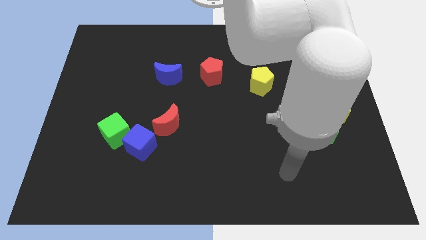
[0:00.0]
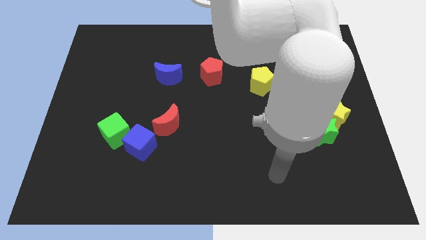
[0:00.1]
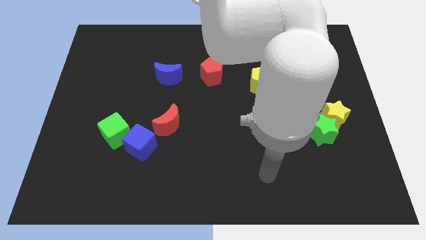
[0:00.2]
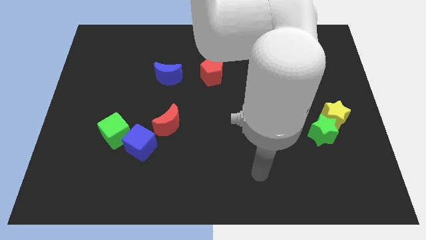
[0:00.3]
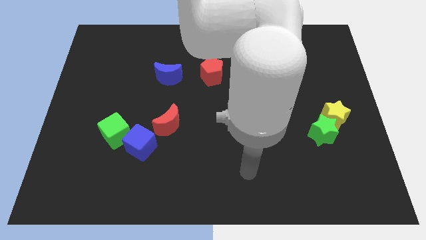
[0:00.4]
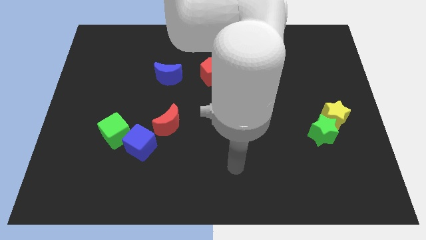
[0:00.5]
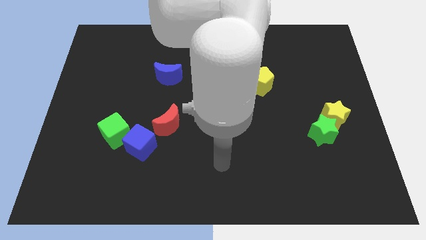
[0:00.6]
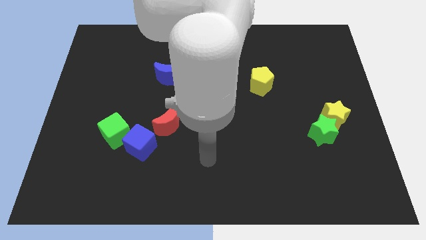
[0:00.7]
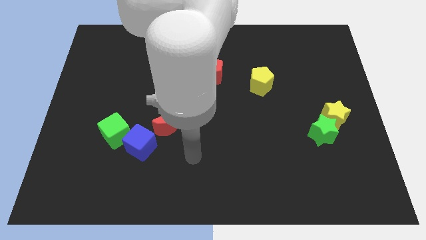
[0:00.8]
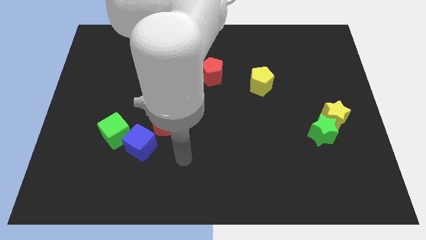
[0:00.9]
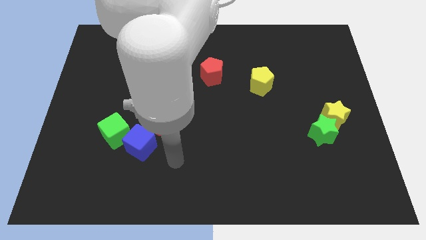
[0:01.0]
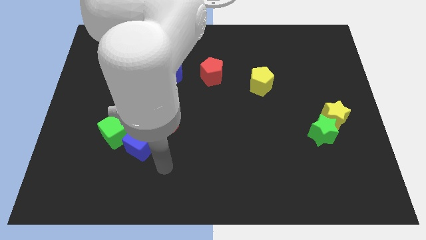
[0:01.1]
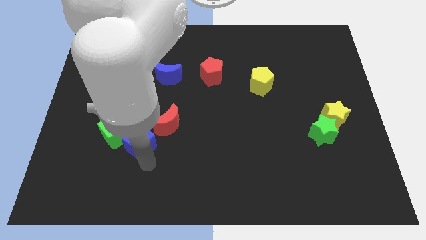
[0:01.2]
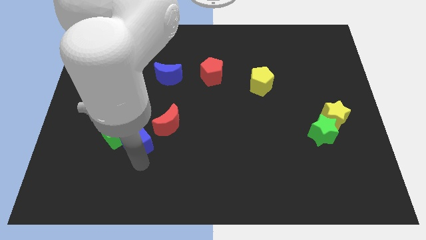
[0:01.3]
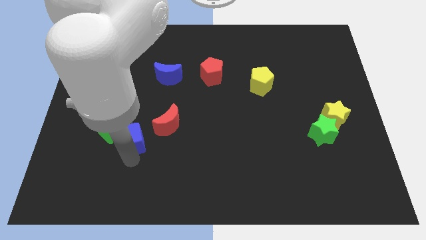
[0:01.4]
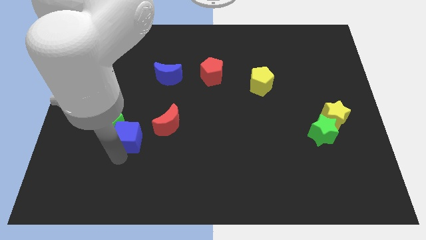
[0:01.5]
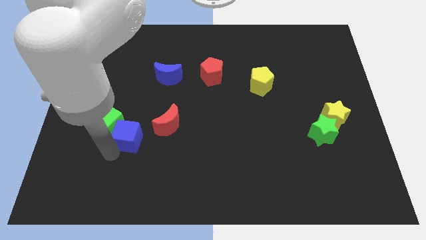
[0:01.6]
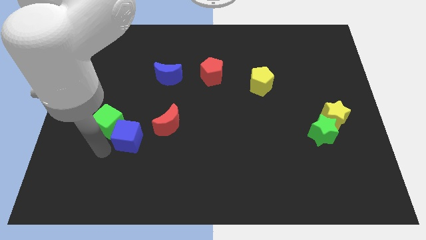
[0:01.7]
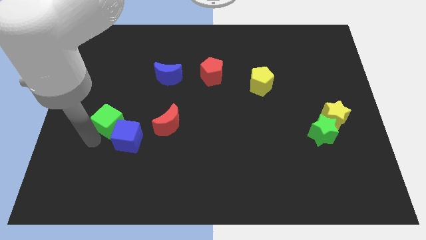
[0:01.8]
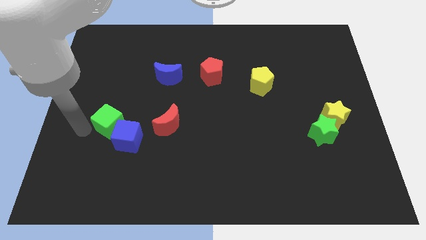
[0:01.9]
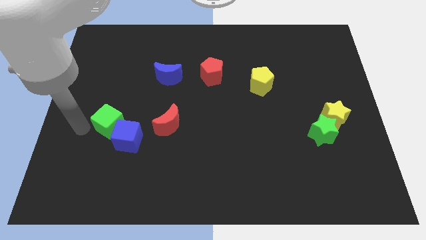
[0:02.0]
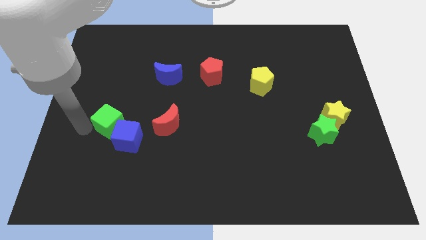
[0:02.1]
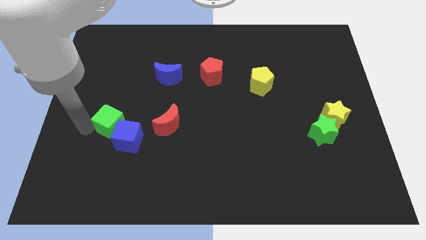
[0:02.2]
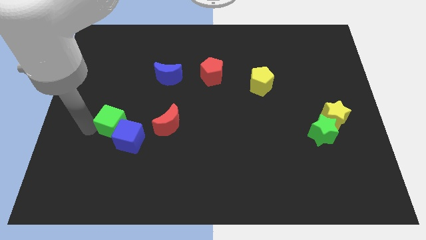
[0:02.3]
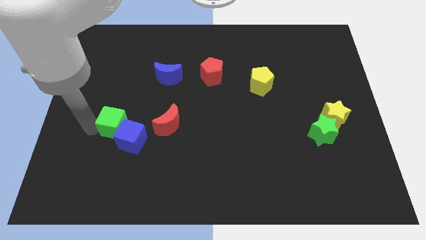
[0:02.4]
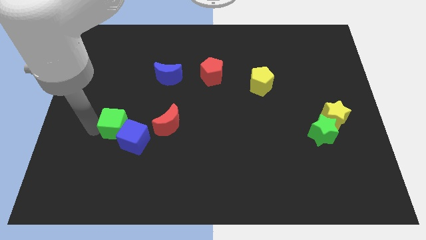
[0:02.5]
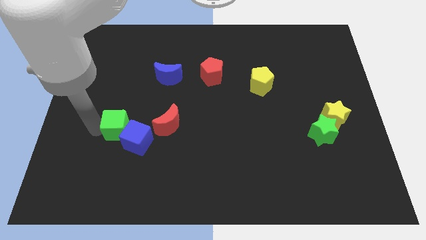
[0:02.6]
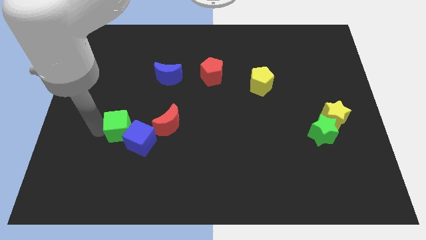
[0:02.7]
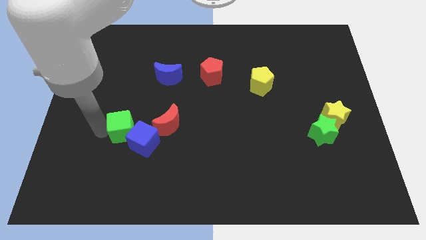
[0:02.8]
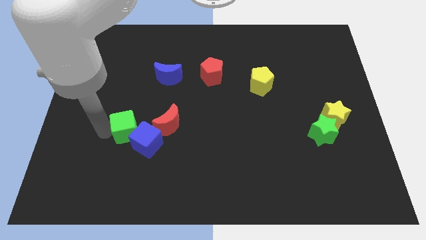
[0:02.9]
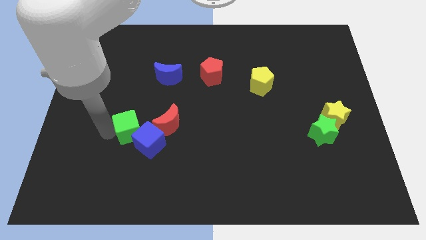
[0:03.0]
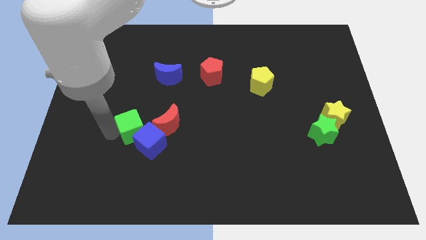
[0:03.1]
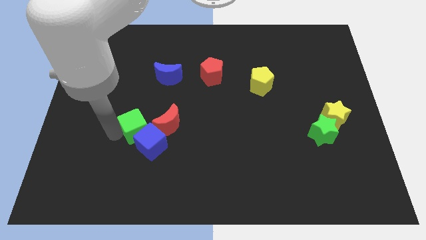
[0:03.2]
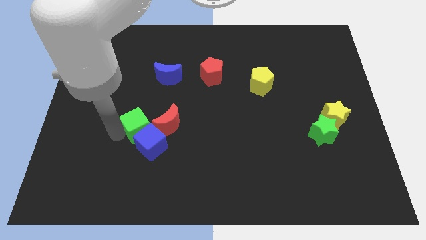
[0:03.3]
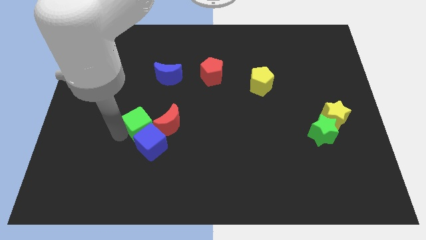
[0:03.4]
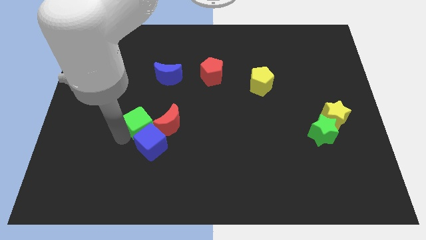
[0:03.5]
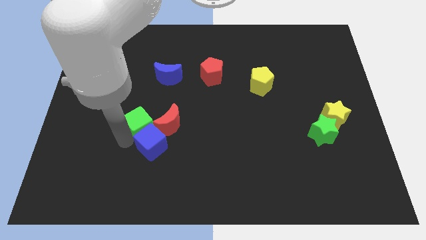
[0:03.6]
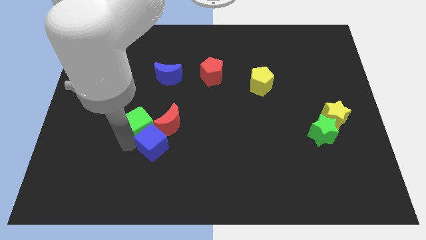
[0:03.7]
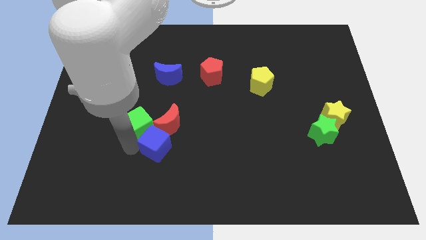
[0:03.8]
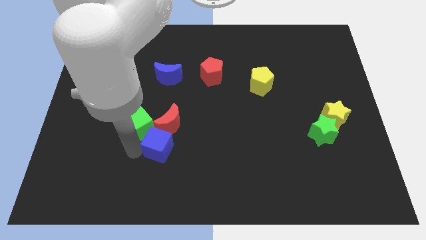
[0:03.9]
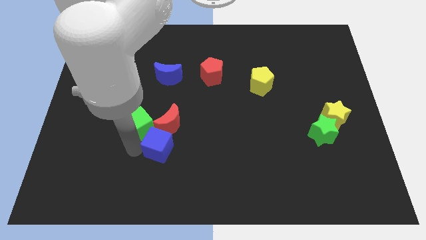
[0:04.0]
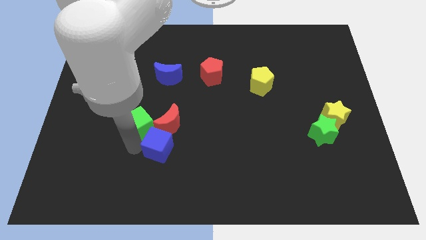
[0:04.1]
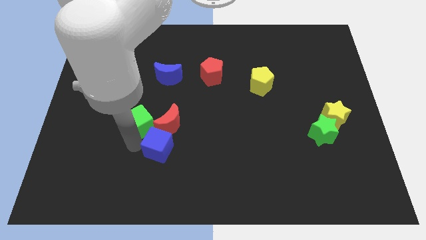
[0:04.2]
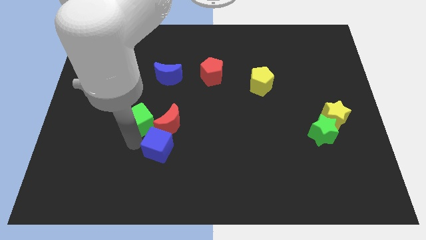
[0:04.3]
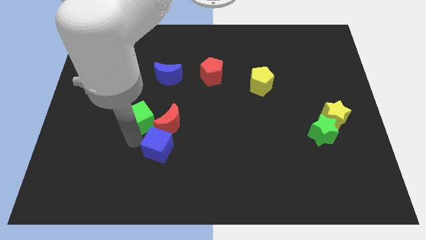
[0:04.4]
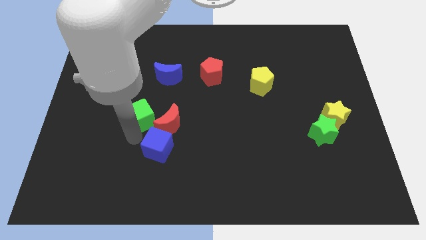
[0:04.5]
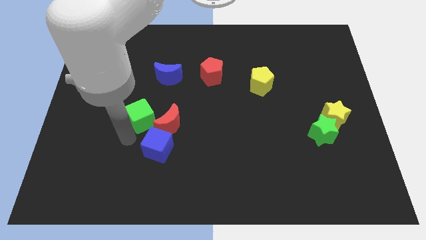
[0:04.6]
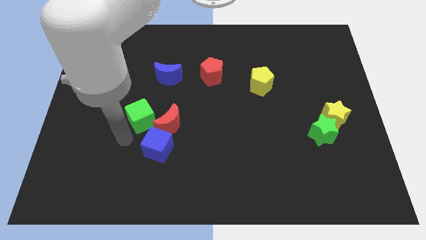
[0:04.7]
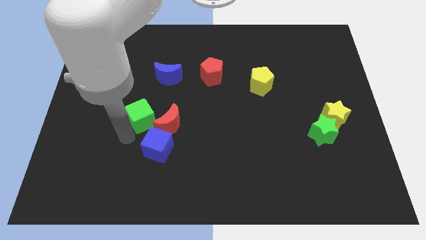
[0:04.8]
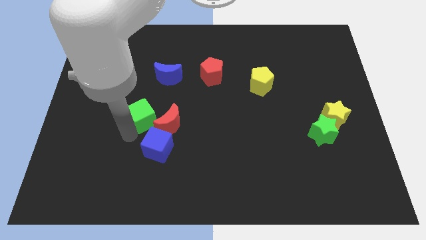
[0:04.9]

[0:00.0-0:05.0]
slightly move the green cube up and right

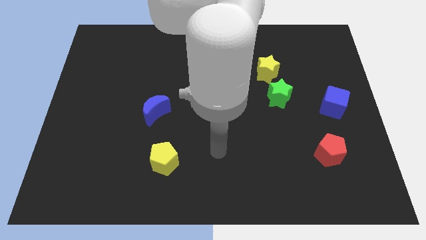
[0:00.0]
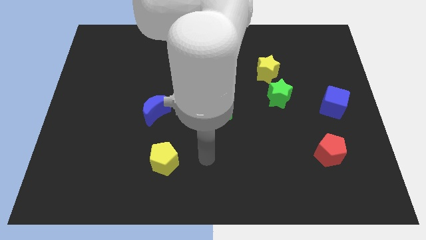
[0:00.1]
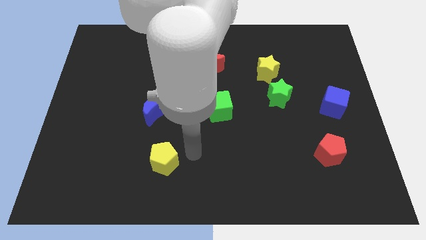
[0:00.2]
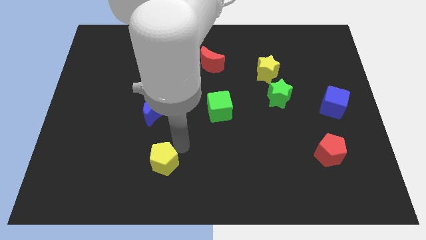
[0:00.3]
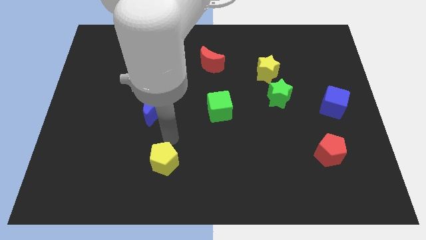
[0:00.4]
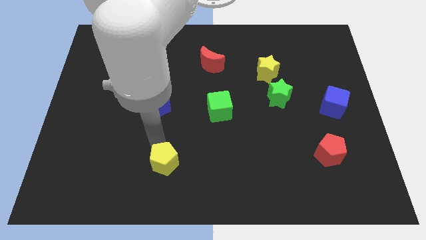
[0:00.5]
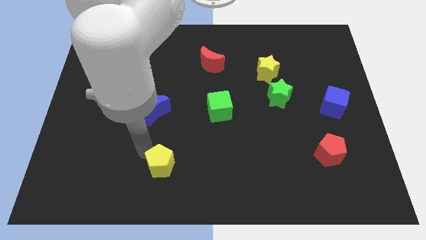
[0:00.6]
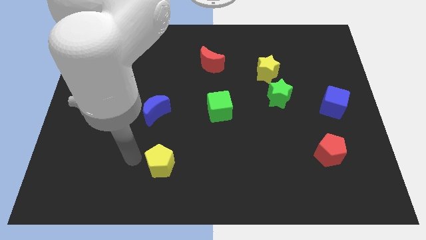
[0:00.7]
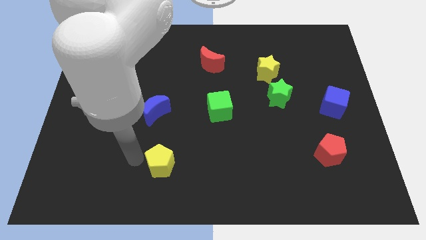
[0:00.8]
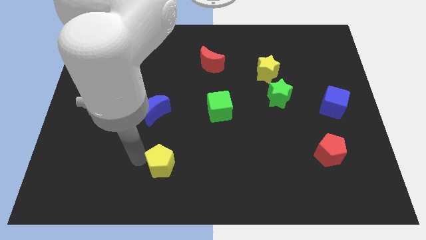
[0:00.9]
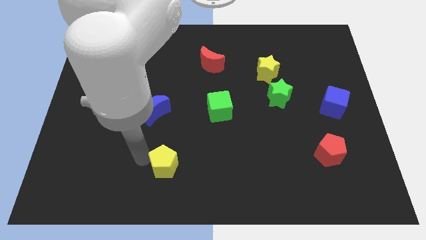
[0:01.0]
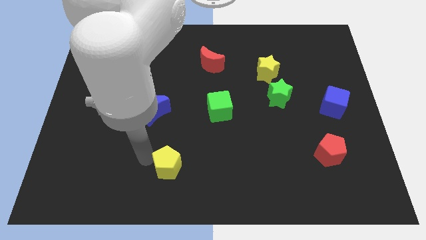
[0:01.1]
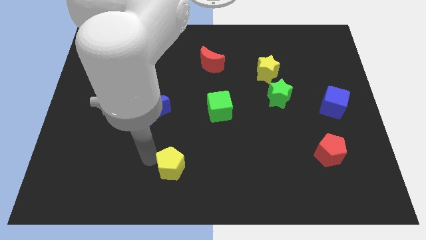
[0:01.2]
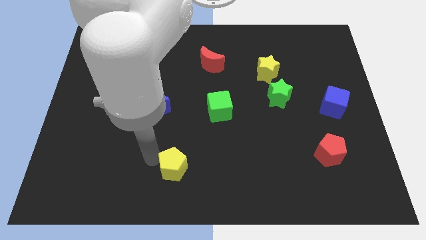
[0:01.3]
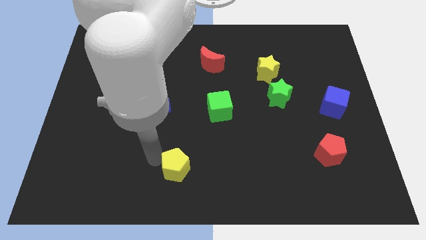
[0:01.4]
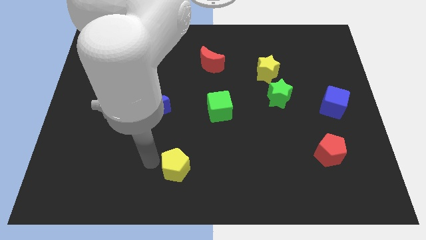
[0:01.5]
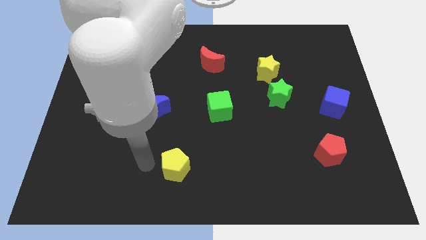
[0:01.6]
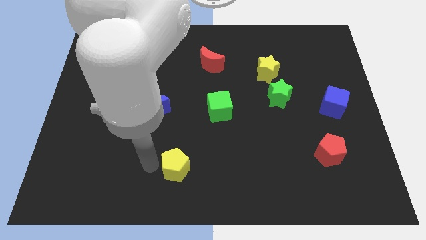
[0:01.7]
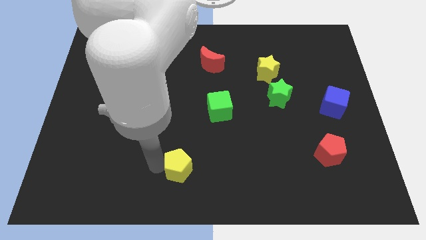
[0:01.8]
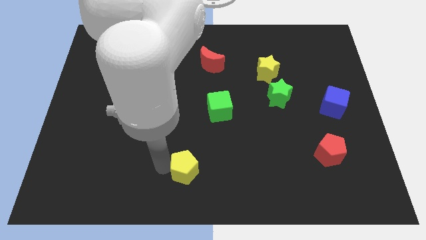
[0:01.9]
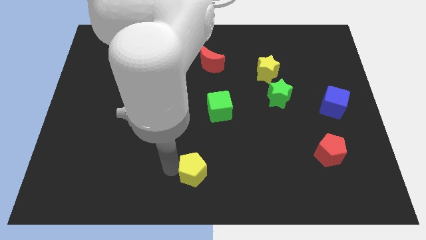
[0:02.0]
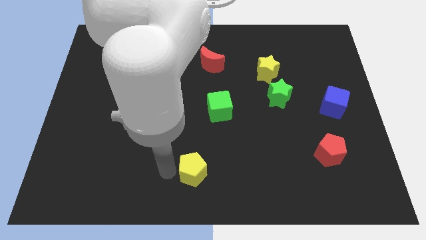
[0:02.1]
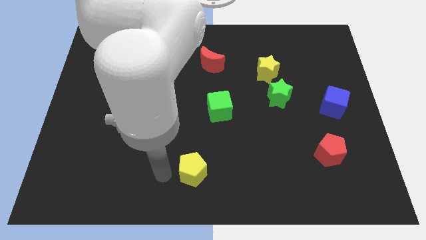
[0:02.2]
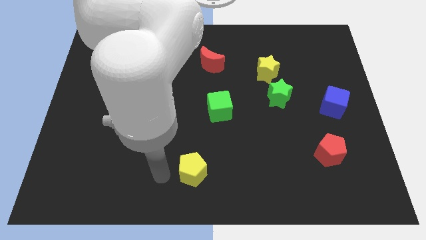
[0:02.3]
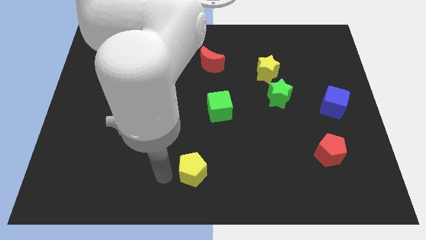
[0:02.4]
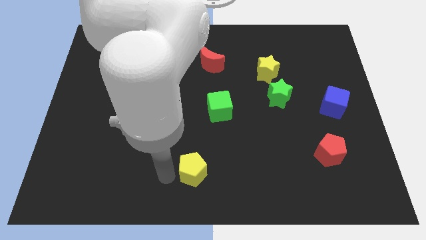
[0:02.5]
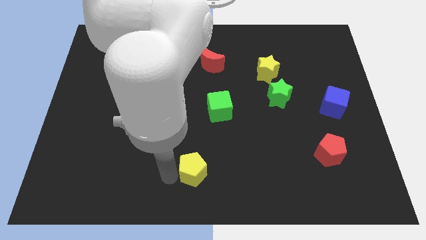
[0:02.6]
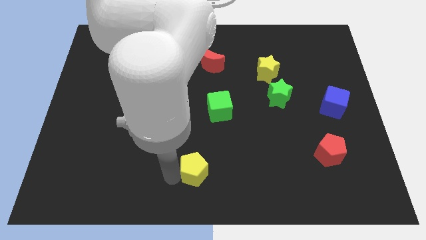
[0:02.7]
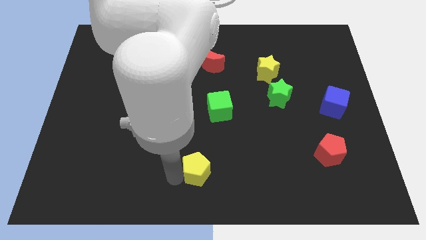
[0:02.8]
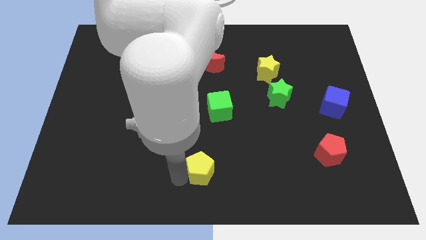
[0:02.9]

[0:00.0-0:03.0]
slightly move the yellow pentagon right
